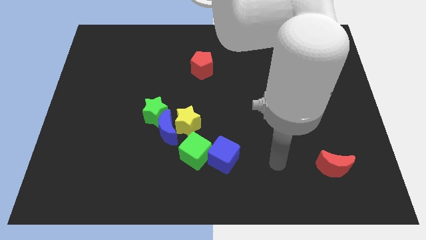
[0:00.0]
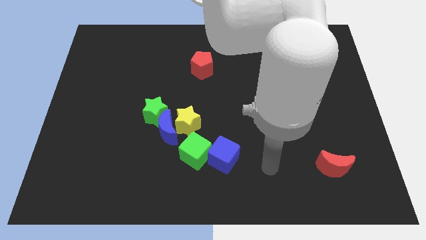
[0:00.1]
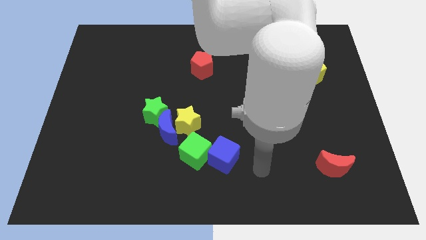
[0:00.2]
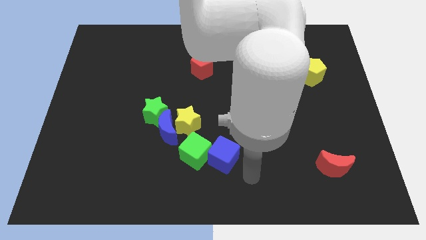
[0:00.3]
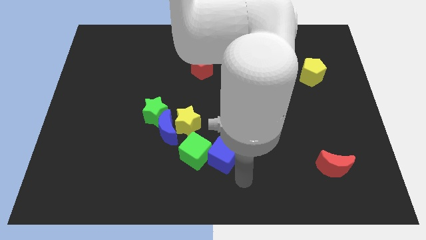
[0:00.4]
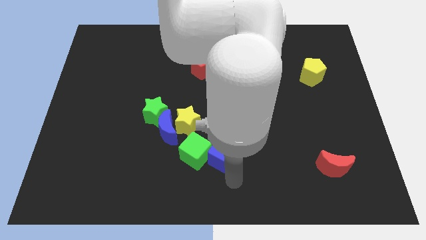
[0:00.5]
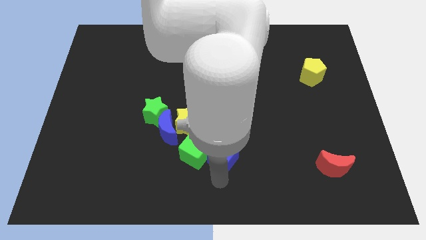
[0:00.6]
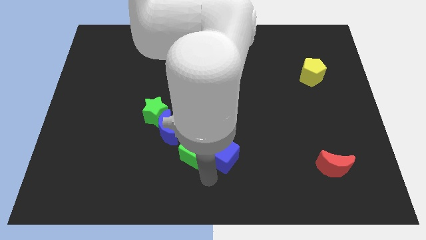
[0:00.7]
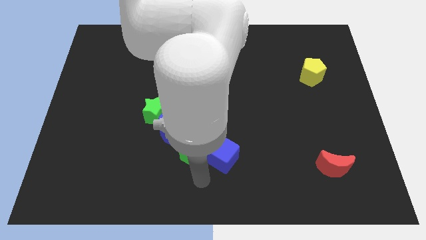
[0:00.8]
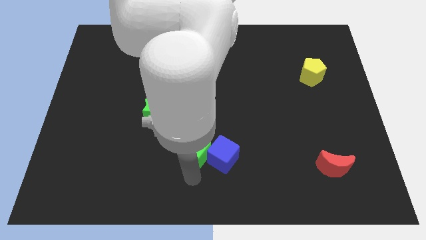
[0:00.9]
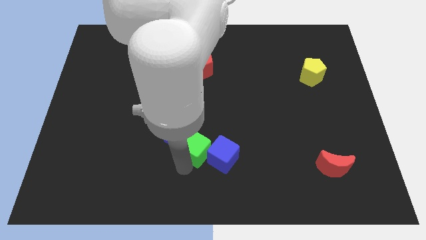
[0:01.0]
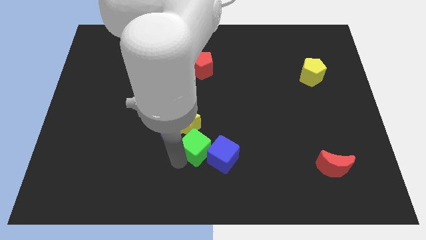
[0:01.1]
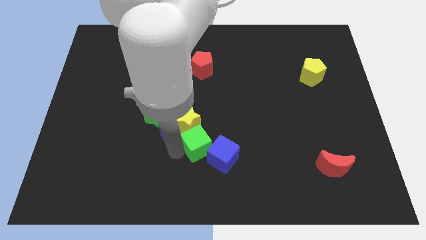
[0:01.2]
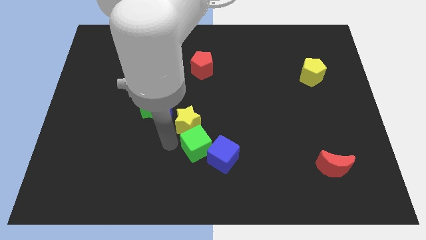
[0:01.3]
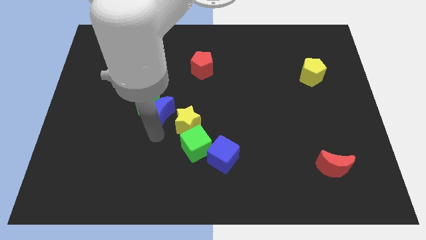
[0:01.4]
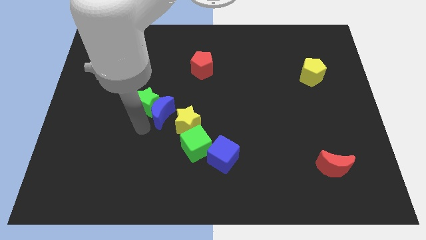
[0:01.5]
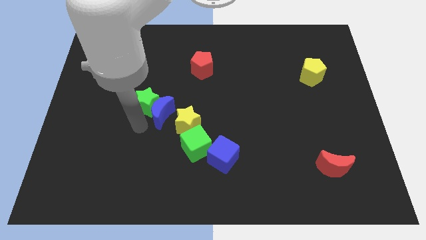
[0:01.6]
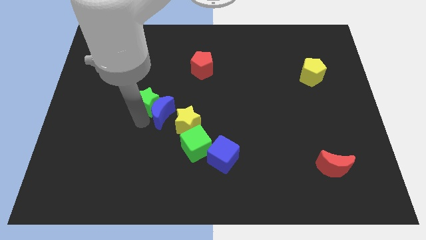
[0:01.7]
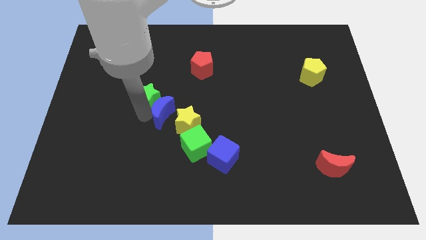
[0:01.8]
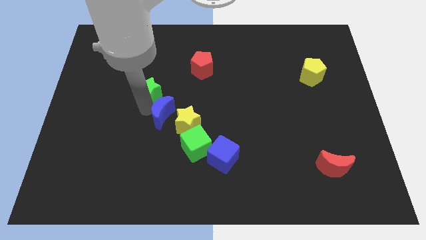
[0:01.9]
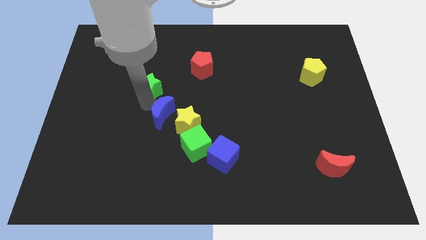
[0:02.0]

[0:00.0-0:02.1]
slightly push the green star upwards

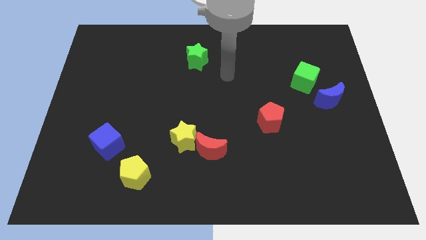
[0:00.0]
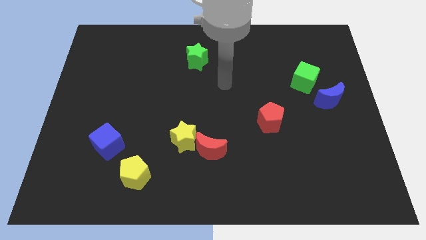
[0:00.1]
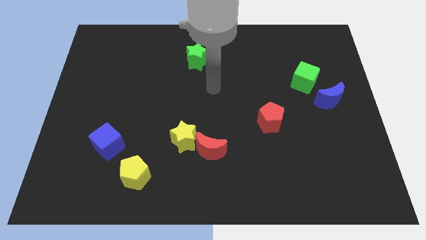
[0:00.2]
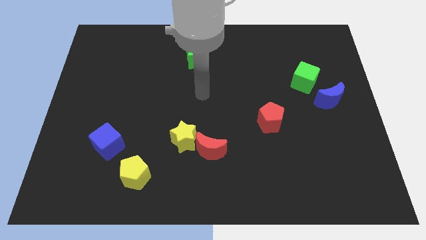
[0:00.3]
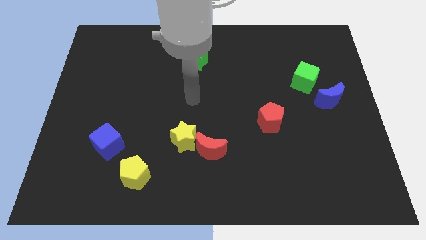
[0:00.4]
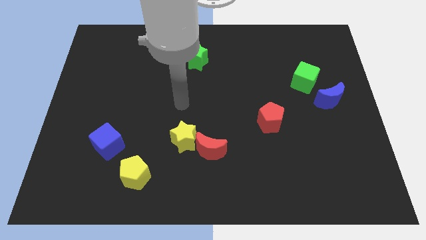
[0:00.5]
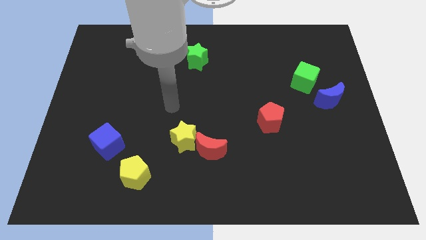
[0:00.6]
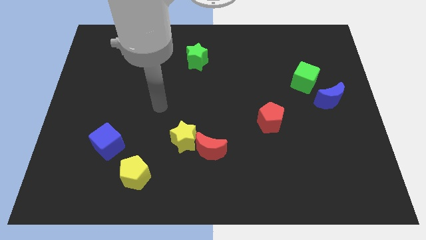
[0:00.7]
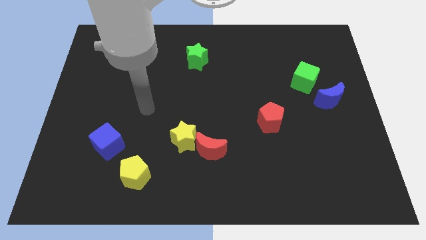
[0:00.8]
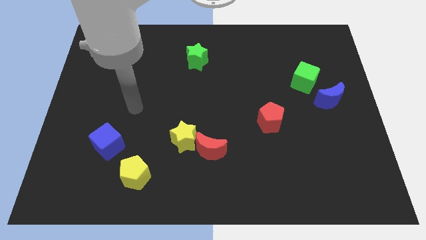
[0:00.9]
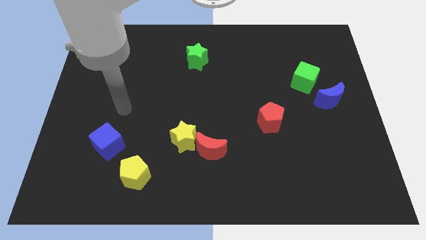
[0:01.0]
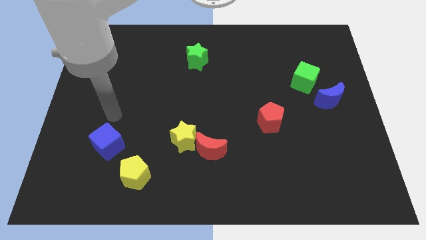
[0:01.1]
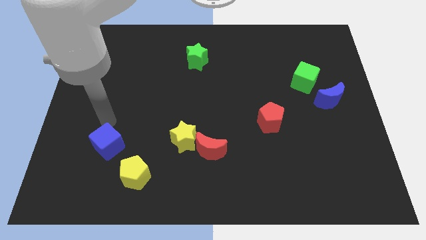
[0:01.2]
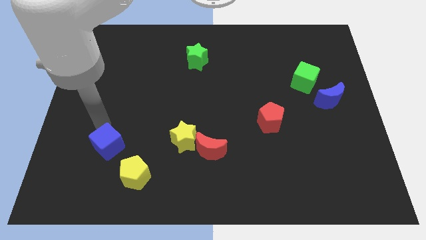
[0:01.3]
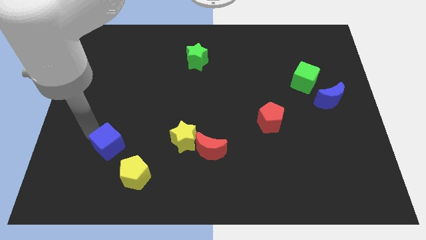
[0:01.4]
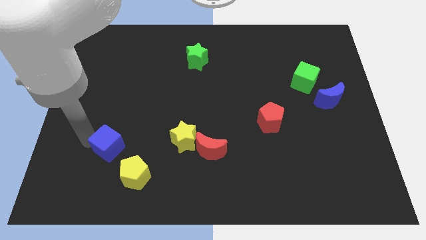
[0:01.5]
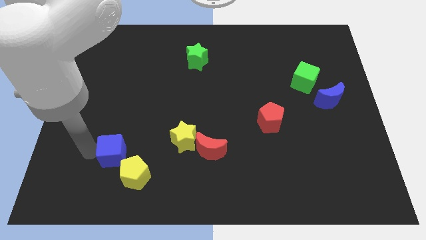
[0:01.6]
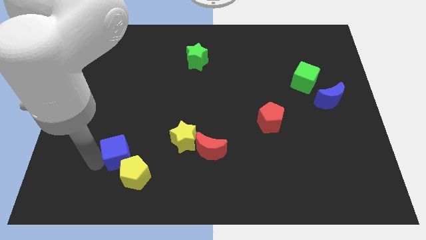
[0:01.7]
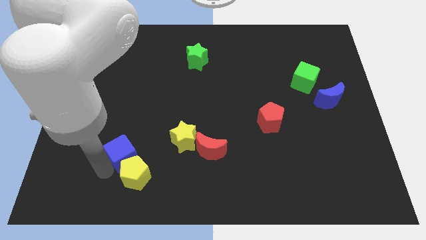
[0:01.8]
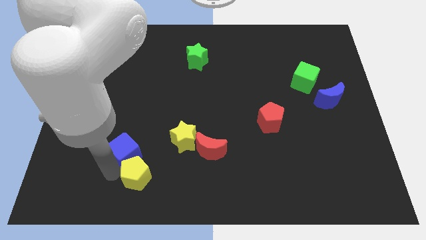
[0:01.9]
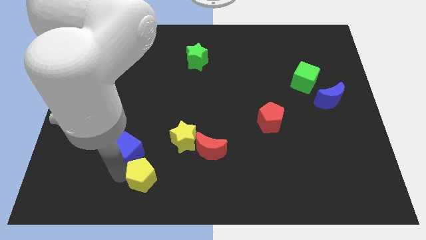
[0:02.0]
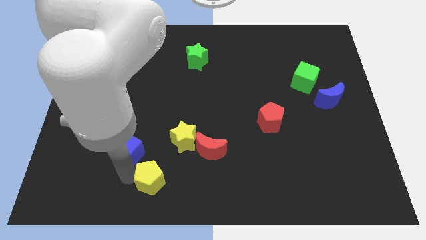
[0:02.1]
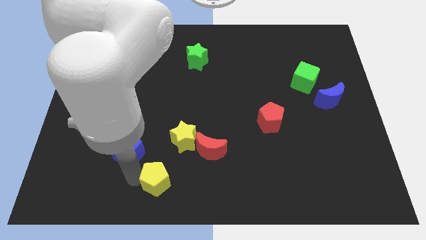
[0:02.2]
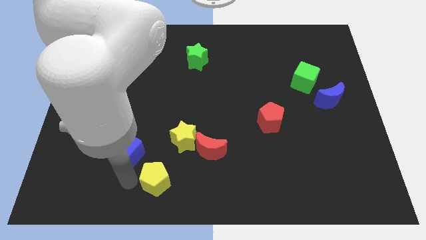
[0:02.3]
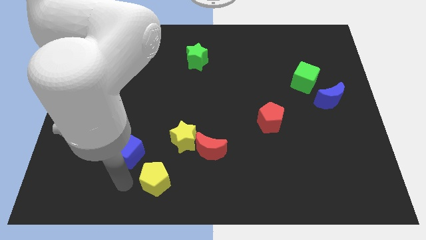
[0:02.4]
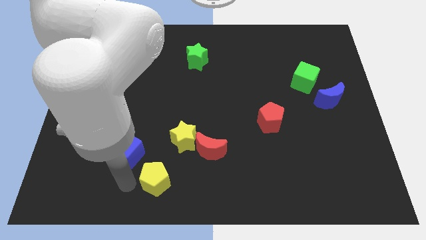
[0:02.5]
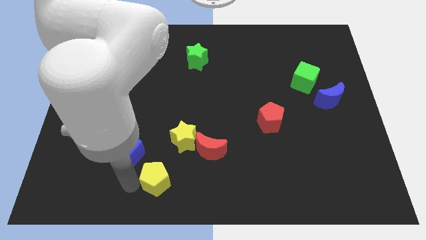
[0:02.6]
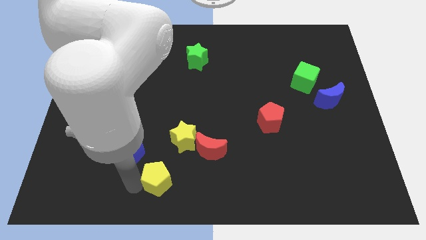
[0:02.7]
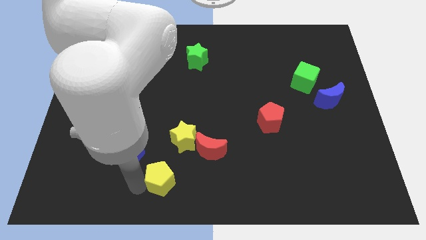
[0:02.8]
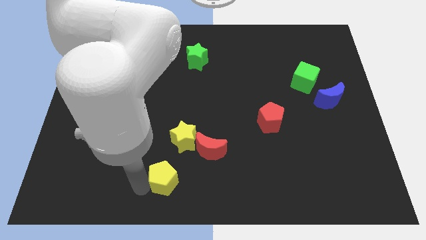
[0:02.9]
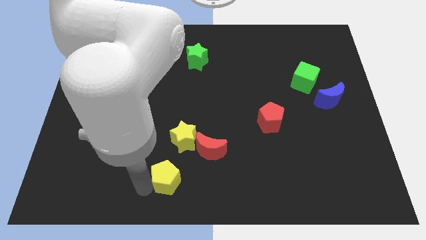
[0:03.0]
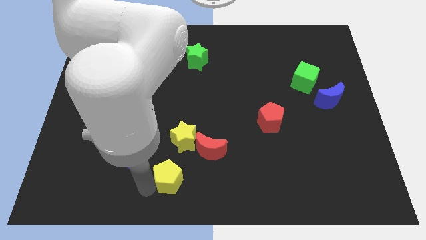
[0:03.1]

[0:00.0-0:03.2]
push the yellow pentagon a little bit to the right

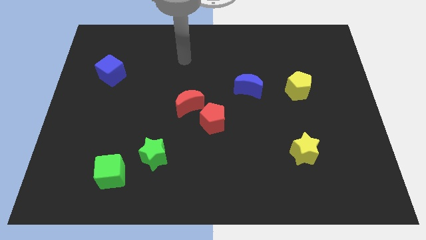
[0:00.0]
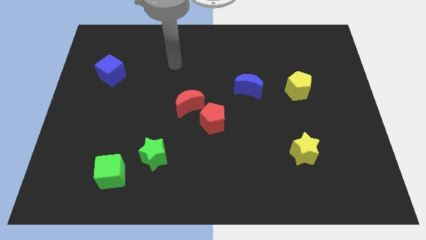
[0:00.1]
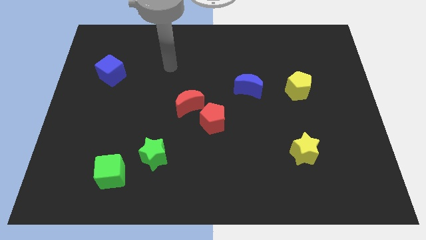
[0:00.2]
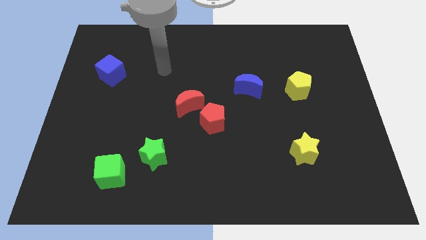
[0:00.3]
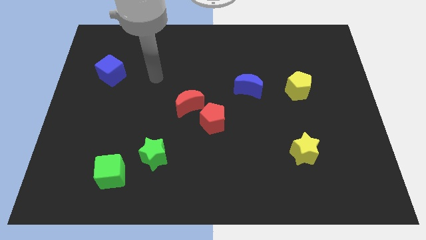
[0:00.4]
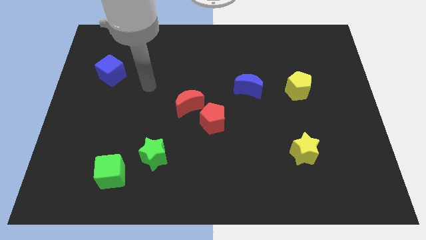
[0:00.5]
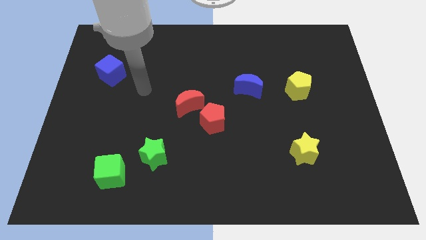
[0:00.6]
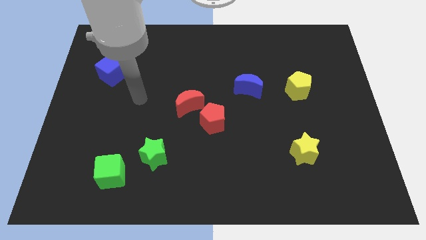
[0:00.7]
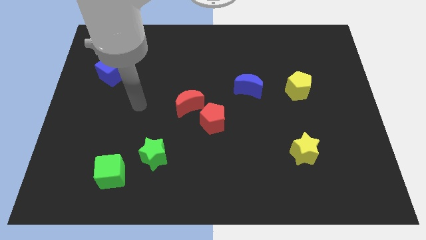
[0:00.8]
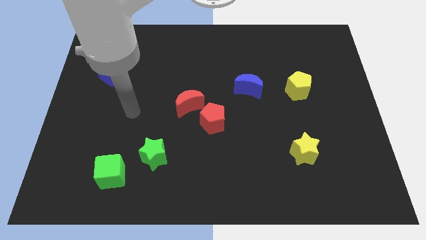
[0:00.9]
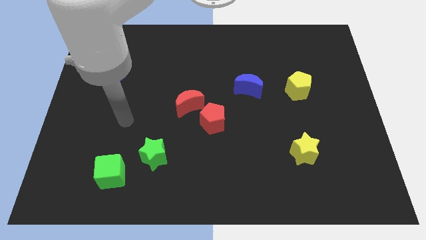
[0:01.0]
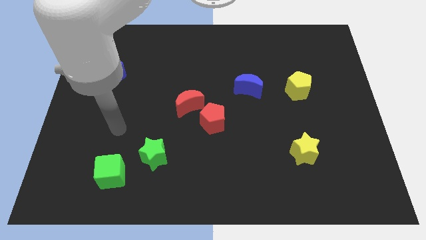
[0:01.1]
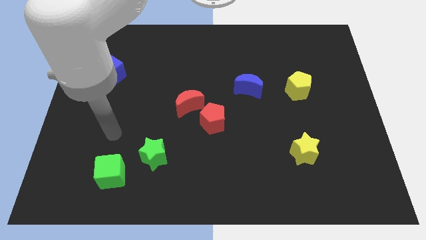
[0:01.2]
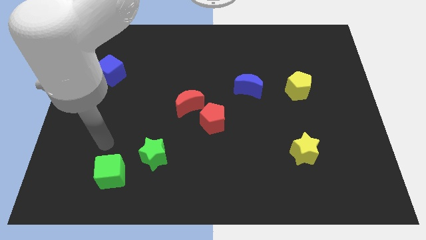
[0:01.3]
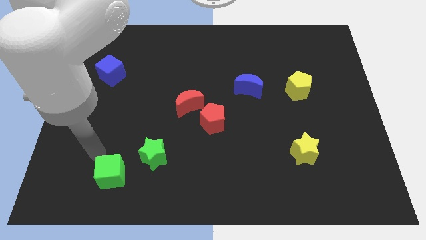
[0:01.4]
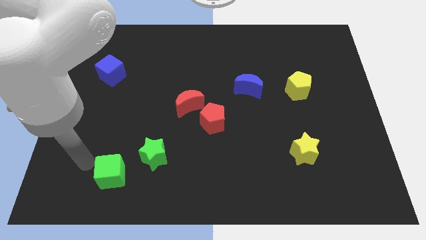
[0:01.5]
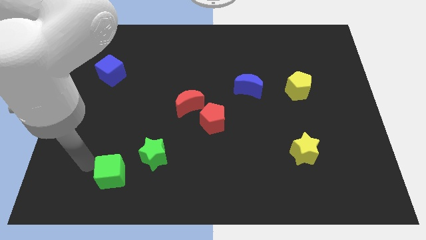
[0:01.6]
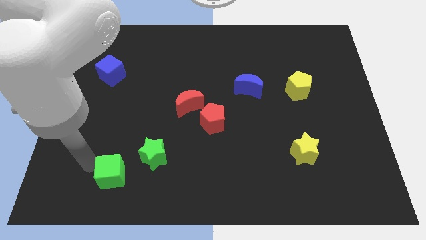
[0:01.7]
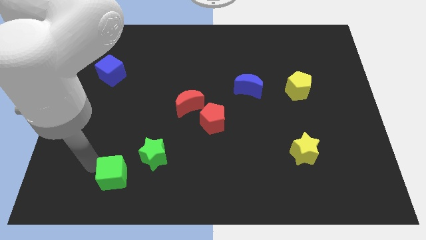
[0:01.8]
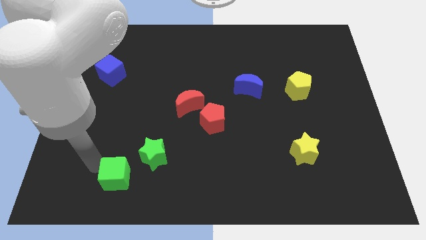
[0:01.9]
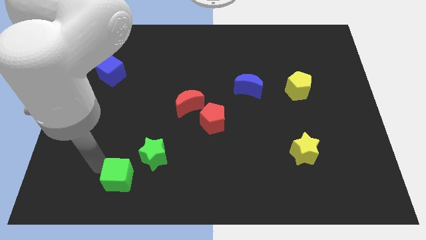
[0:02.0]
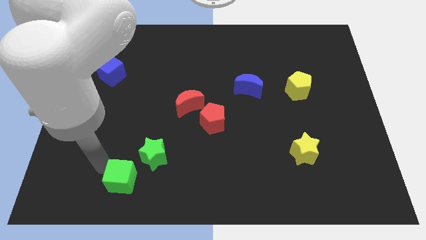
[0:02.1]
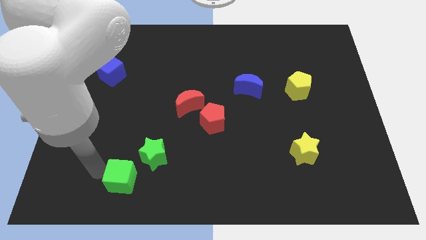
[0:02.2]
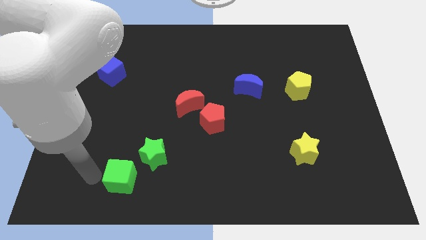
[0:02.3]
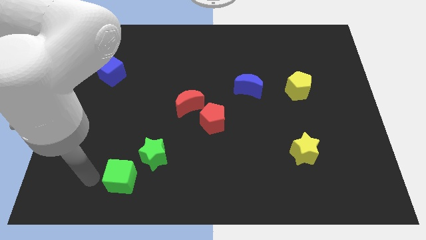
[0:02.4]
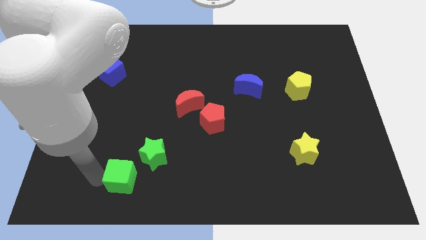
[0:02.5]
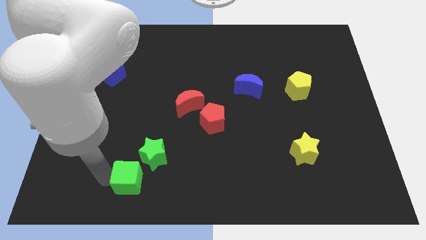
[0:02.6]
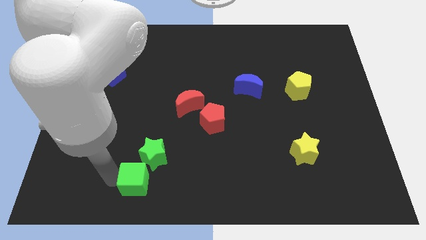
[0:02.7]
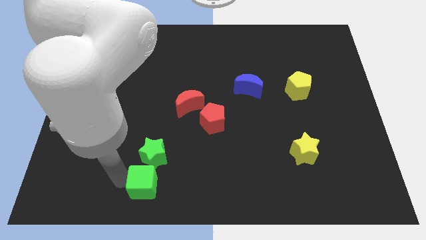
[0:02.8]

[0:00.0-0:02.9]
move the green cube somewhat right
